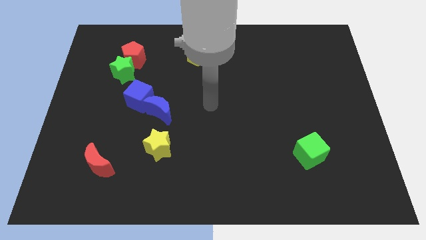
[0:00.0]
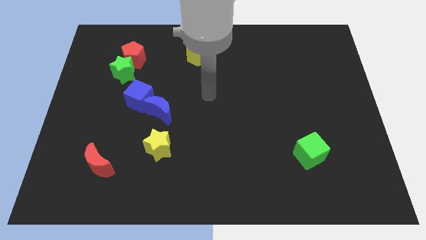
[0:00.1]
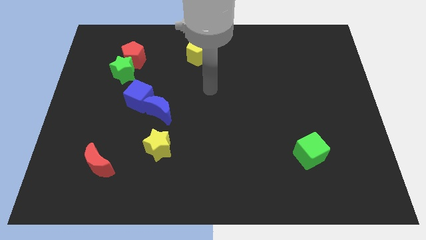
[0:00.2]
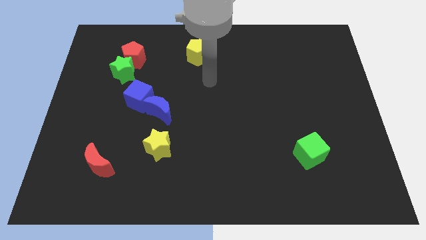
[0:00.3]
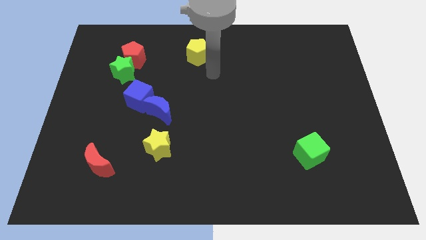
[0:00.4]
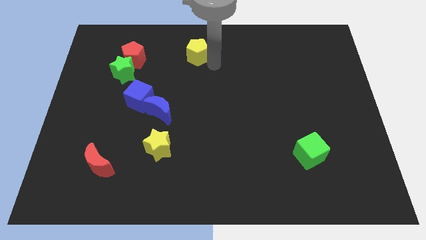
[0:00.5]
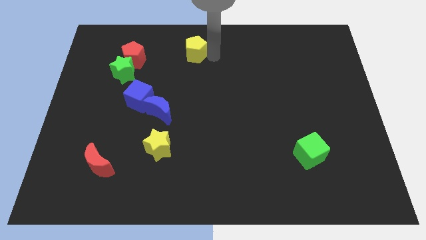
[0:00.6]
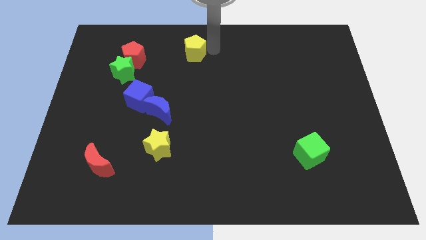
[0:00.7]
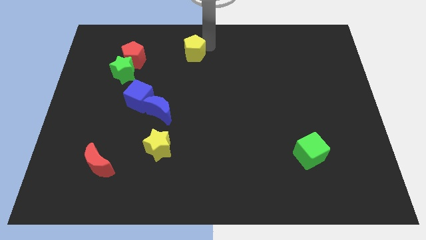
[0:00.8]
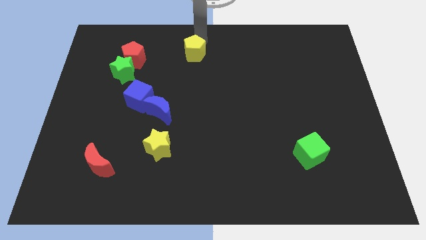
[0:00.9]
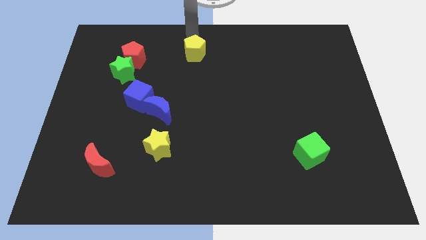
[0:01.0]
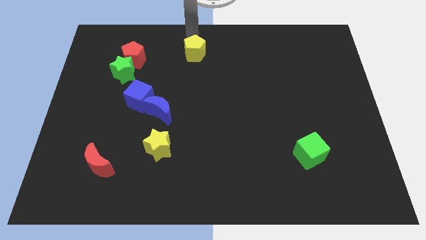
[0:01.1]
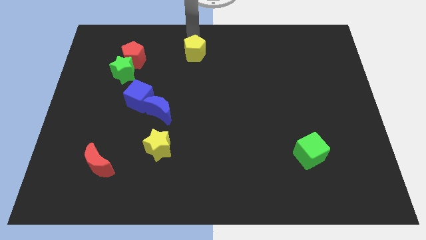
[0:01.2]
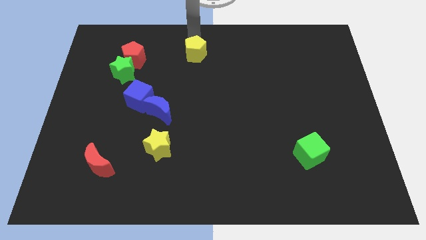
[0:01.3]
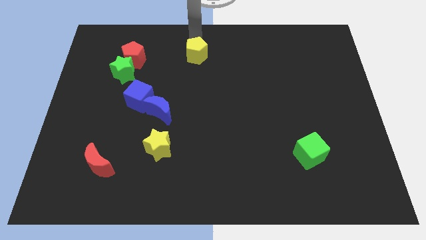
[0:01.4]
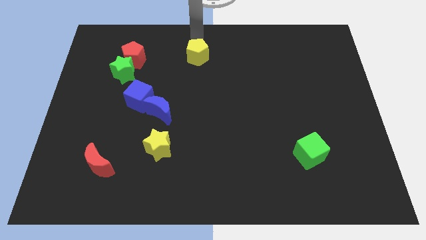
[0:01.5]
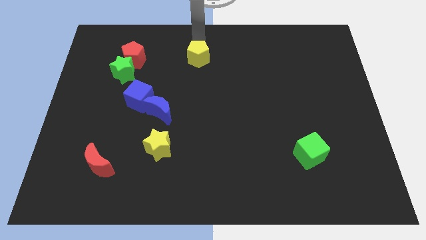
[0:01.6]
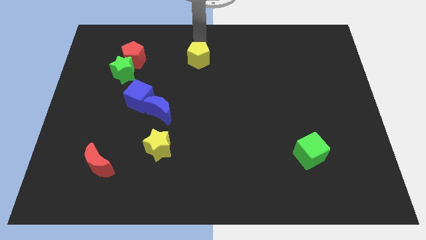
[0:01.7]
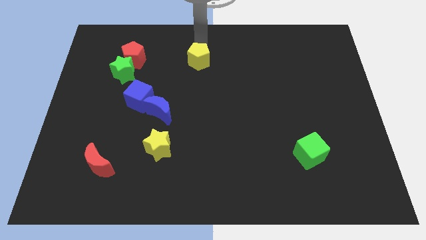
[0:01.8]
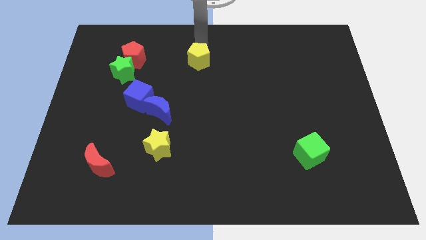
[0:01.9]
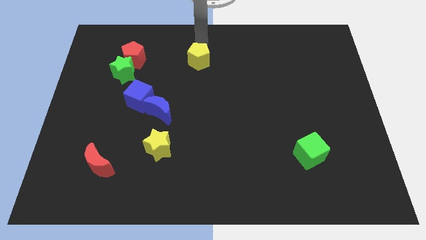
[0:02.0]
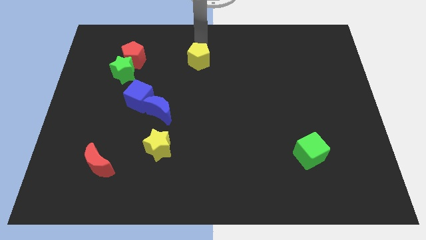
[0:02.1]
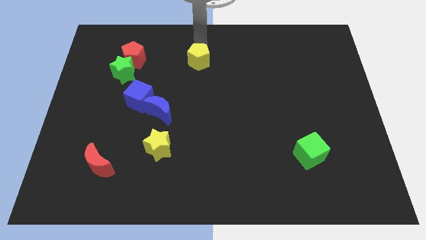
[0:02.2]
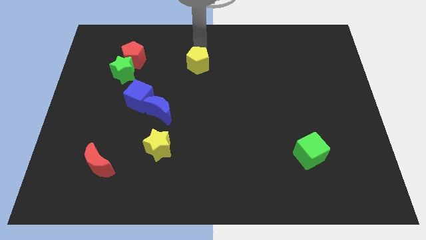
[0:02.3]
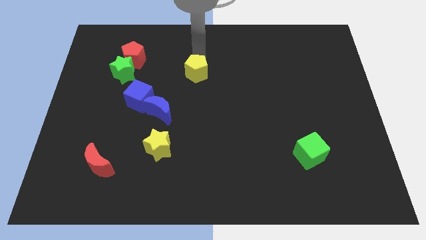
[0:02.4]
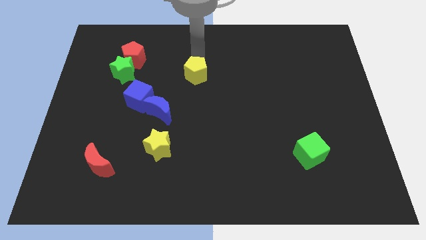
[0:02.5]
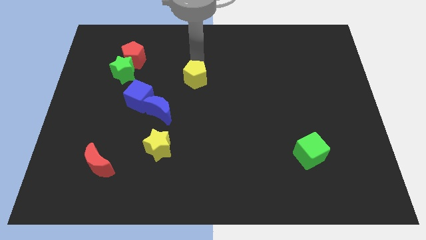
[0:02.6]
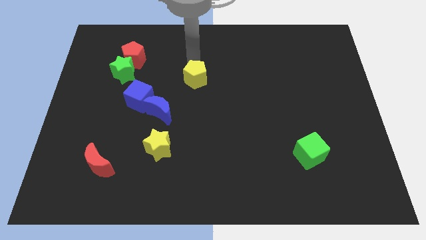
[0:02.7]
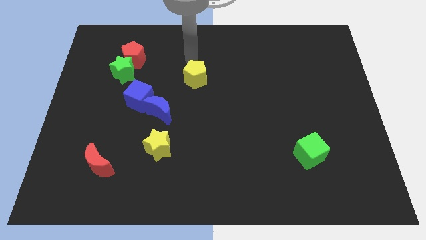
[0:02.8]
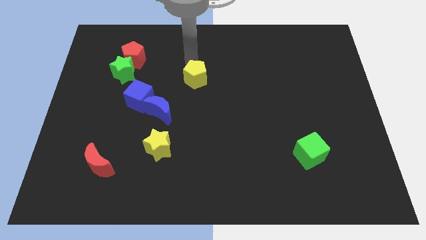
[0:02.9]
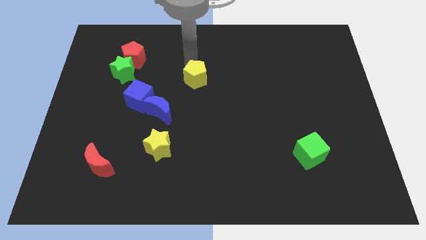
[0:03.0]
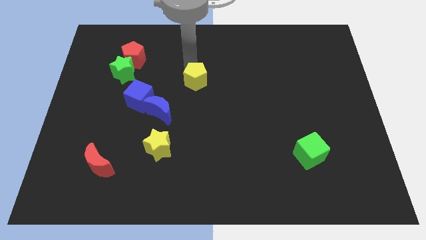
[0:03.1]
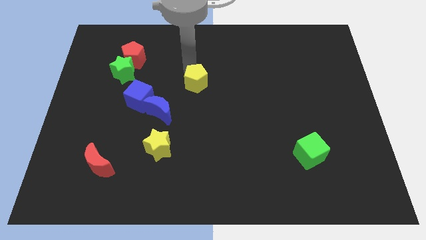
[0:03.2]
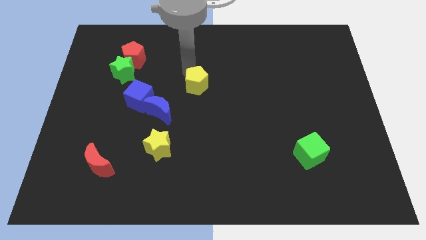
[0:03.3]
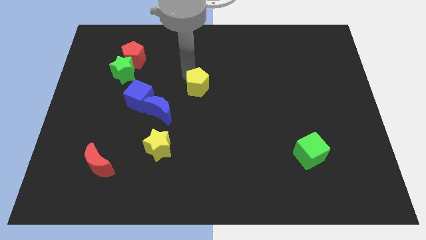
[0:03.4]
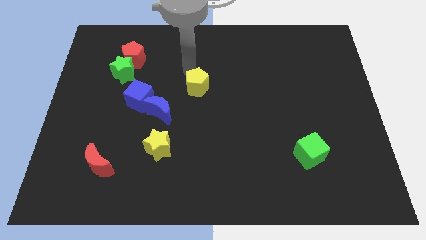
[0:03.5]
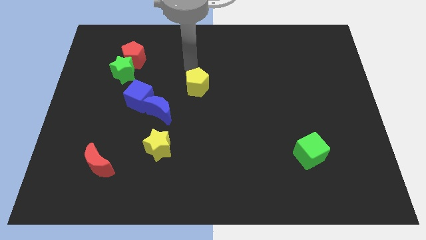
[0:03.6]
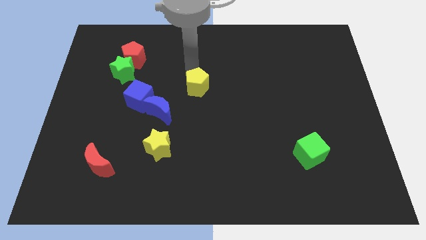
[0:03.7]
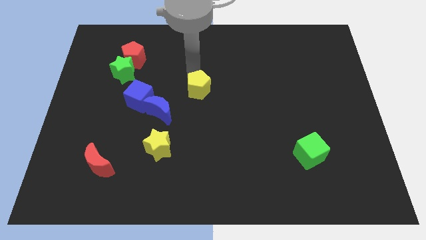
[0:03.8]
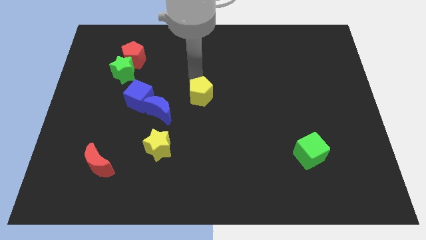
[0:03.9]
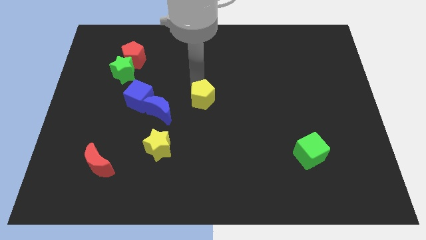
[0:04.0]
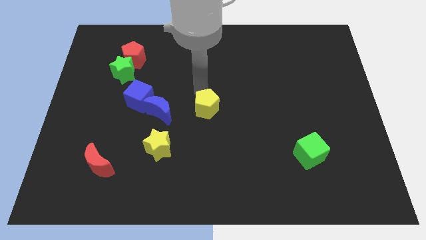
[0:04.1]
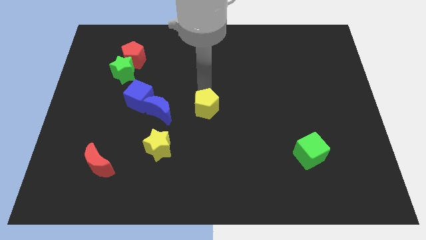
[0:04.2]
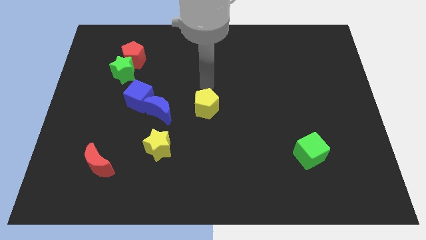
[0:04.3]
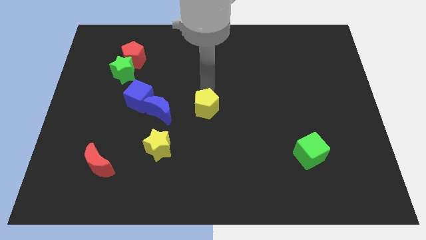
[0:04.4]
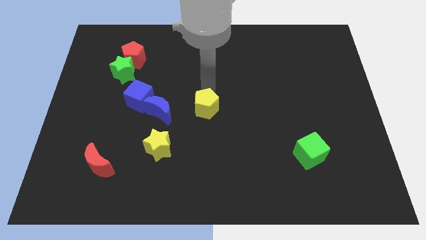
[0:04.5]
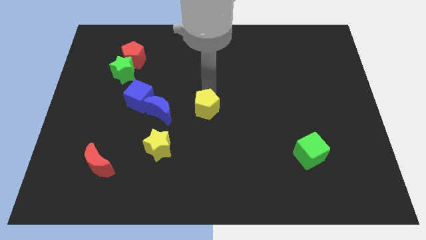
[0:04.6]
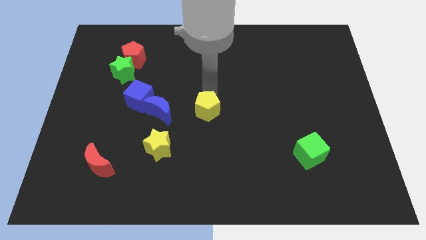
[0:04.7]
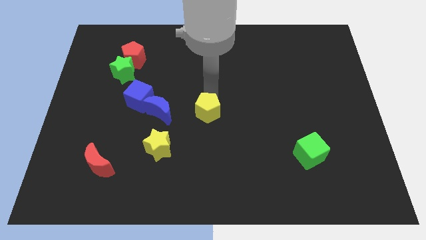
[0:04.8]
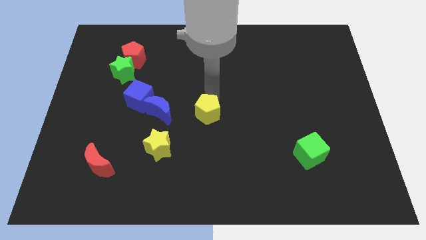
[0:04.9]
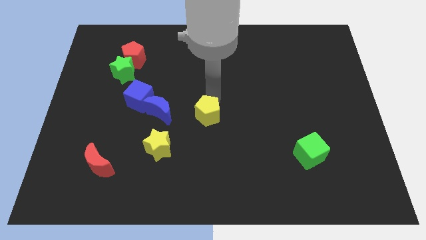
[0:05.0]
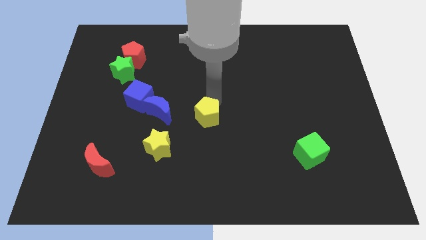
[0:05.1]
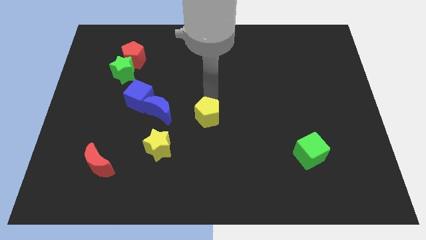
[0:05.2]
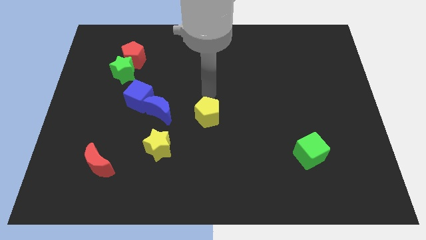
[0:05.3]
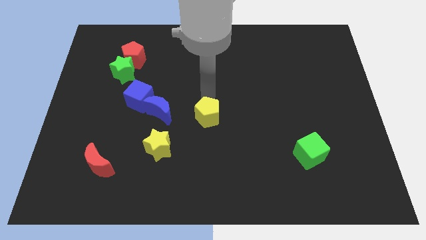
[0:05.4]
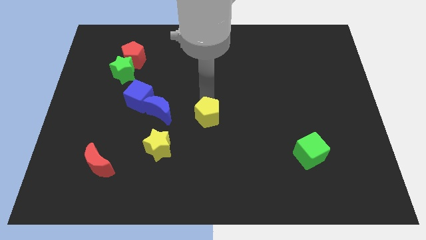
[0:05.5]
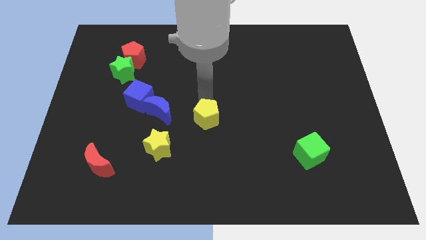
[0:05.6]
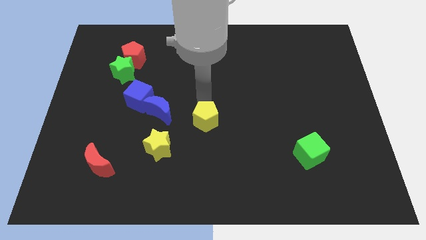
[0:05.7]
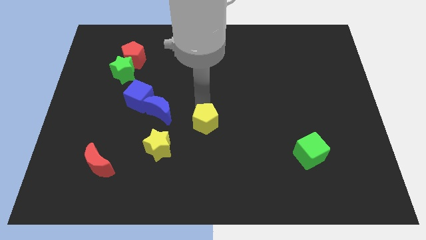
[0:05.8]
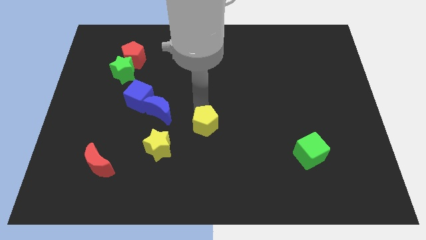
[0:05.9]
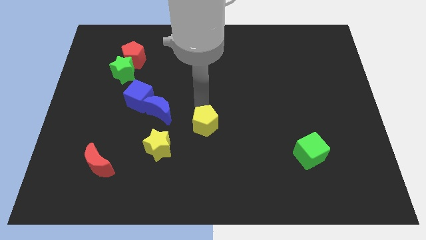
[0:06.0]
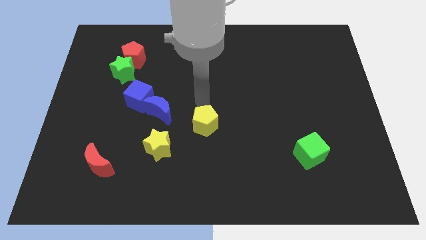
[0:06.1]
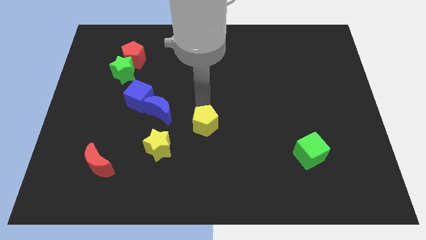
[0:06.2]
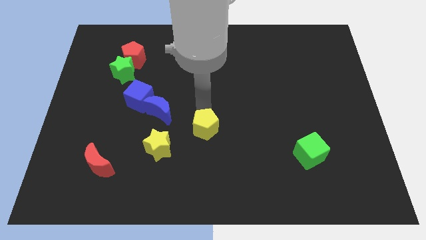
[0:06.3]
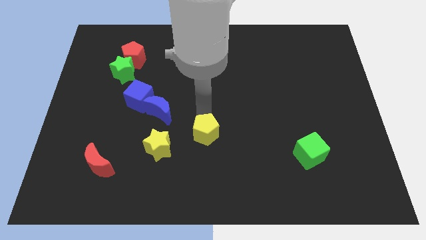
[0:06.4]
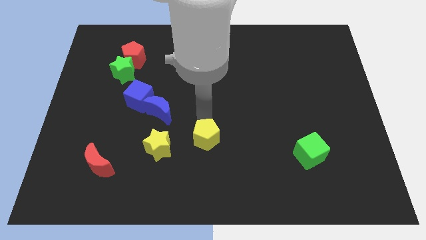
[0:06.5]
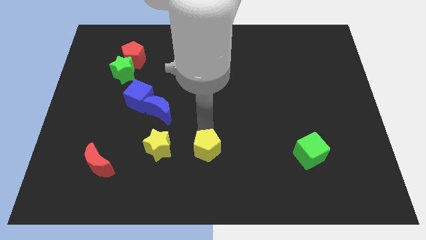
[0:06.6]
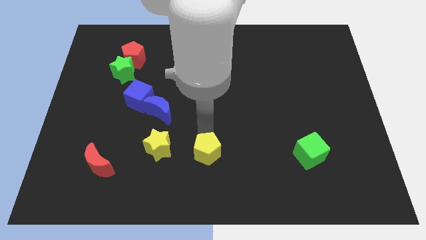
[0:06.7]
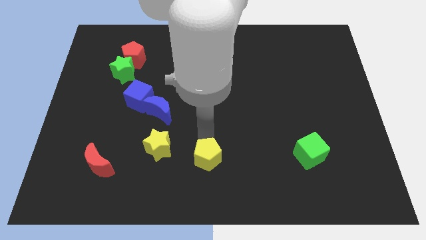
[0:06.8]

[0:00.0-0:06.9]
slide the yellow pentagon to the bottom side

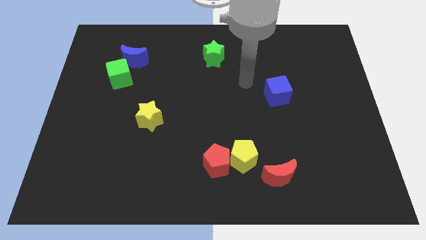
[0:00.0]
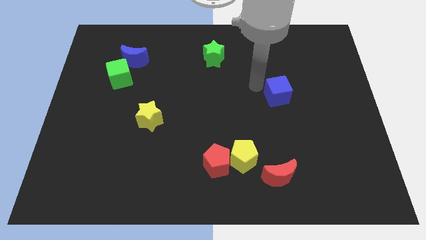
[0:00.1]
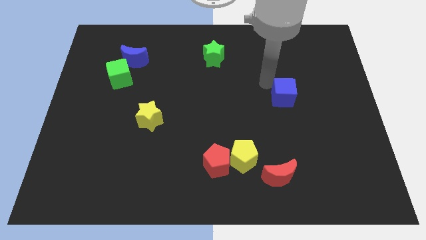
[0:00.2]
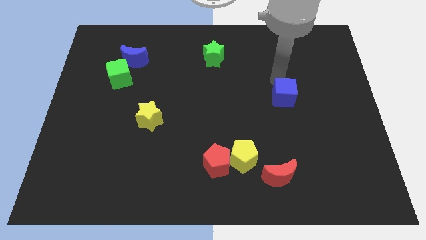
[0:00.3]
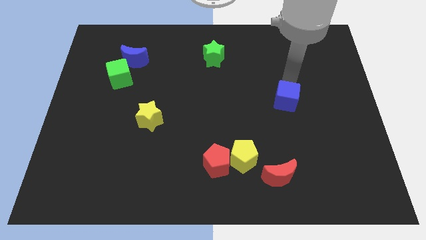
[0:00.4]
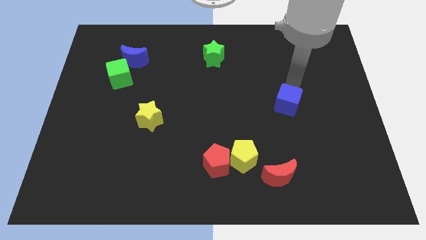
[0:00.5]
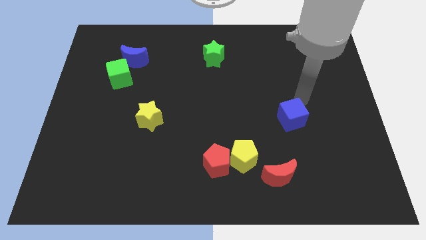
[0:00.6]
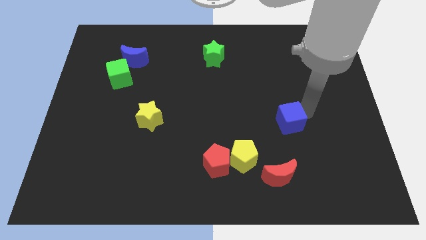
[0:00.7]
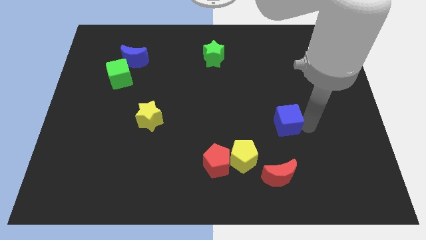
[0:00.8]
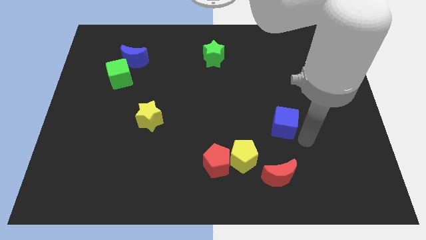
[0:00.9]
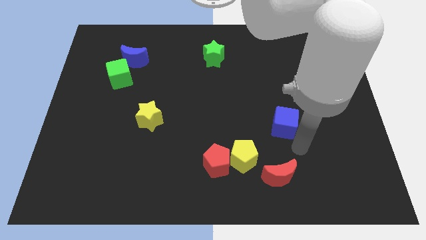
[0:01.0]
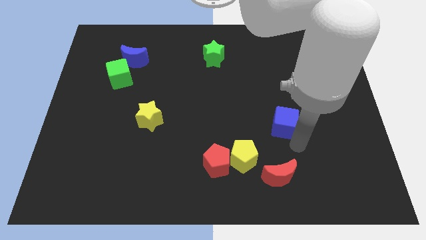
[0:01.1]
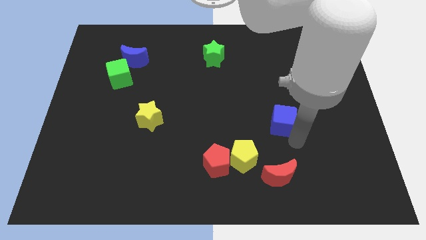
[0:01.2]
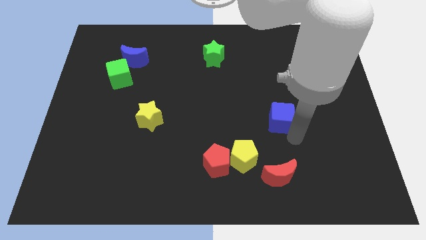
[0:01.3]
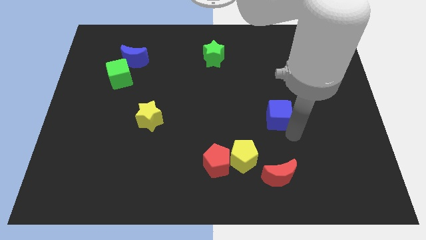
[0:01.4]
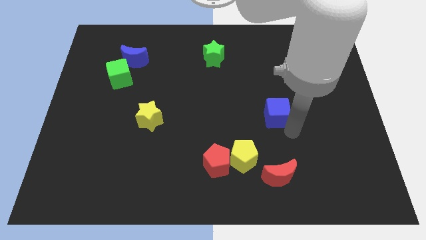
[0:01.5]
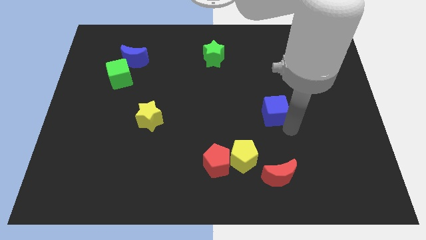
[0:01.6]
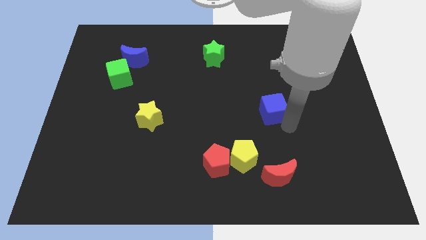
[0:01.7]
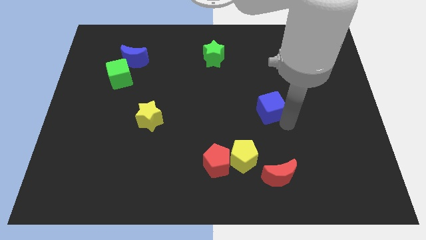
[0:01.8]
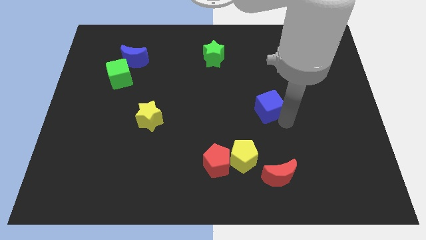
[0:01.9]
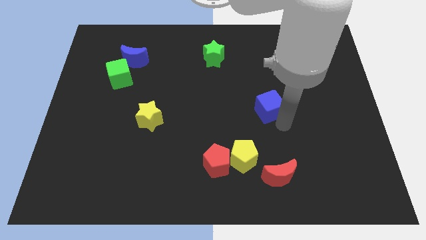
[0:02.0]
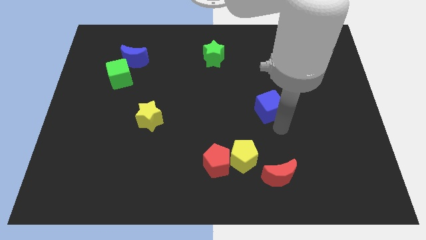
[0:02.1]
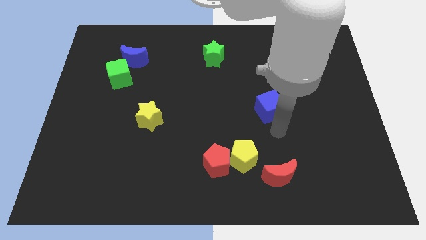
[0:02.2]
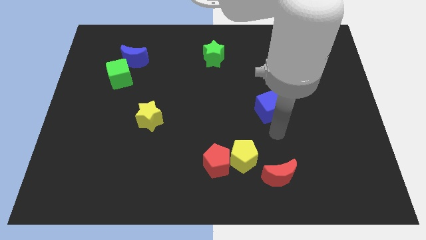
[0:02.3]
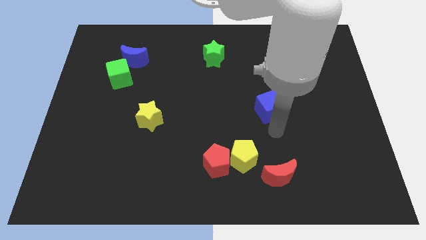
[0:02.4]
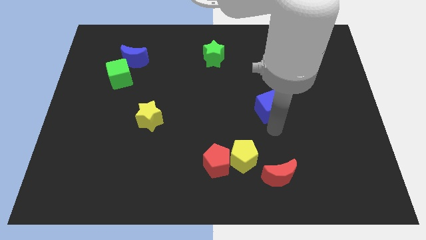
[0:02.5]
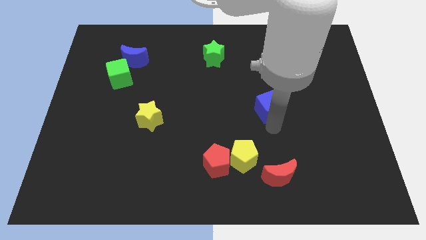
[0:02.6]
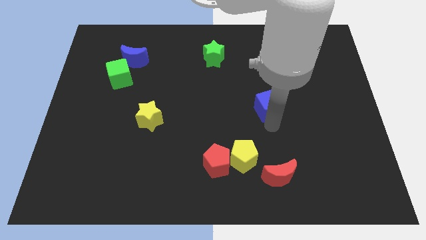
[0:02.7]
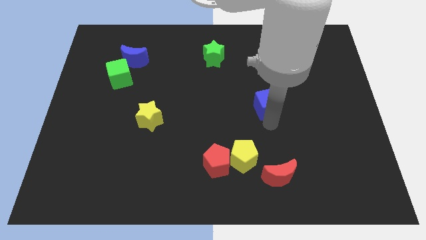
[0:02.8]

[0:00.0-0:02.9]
move the blue cube to the middle
